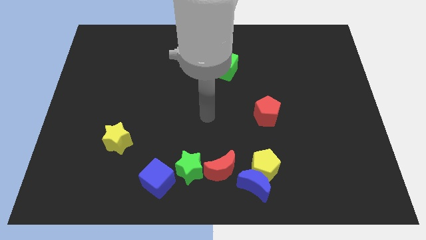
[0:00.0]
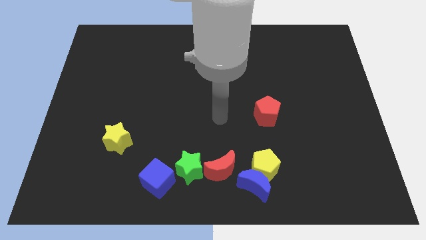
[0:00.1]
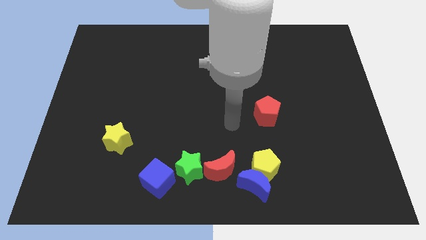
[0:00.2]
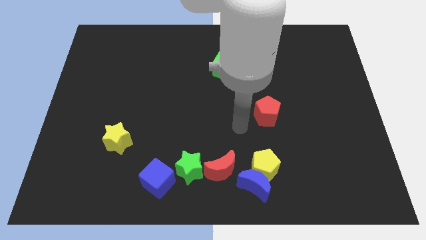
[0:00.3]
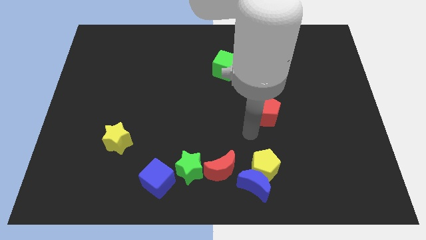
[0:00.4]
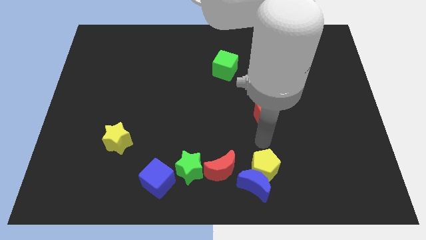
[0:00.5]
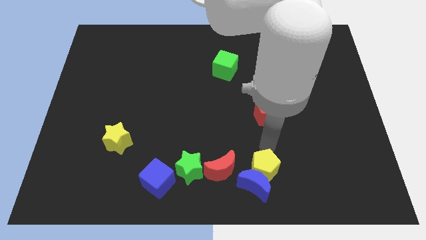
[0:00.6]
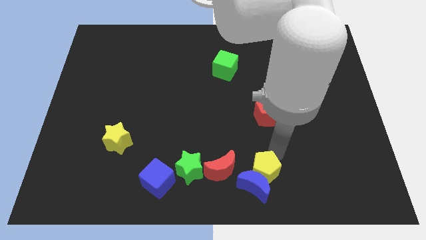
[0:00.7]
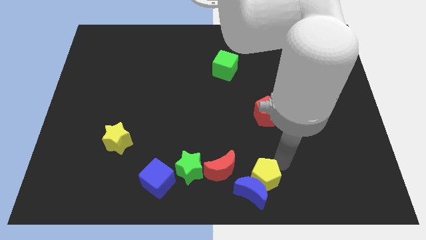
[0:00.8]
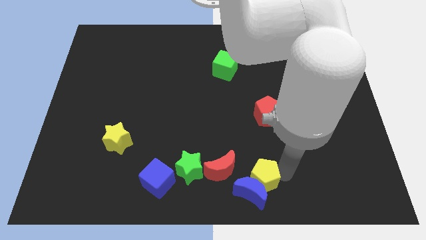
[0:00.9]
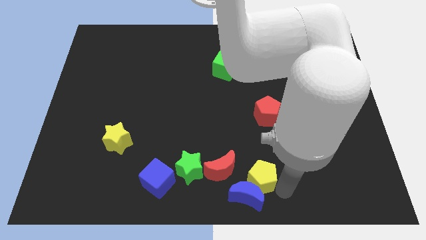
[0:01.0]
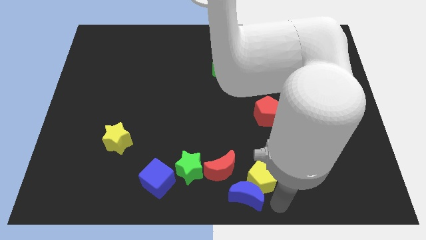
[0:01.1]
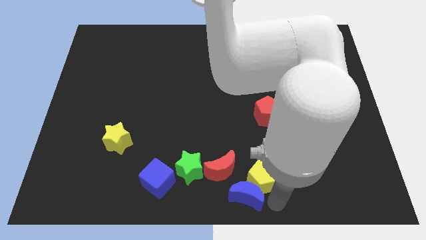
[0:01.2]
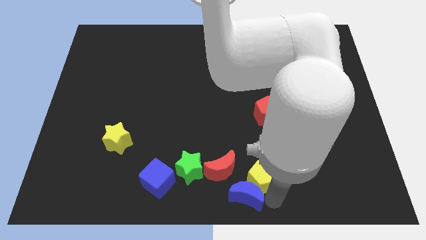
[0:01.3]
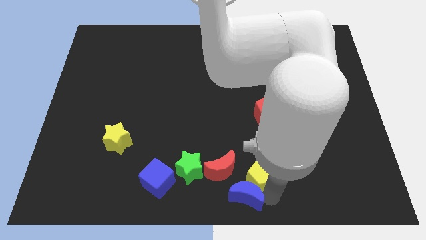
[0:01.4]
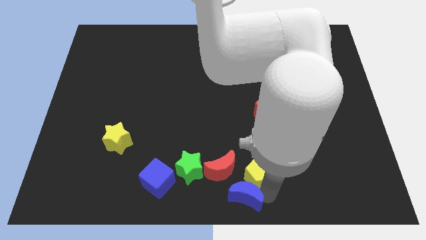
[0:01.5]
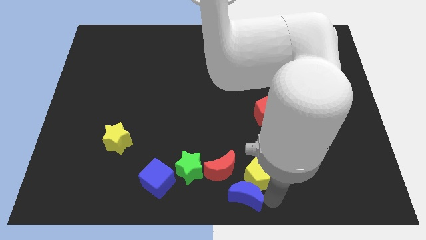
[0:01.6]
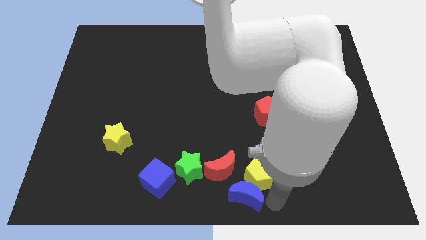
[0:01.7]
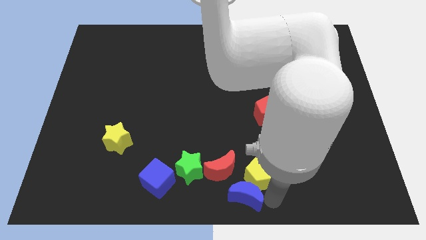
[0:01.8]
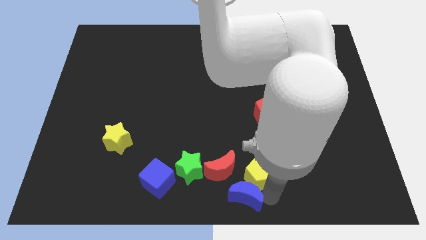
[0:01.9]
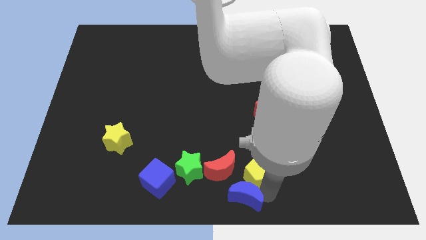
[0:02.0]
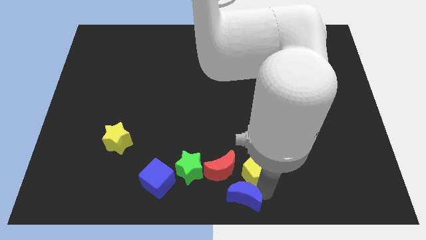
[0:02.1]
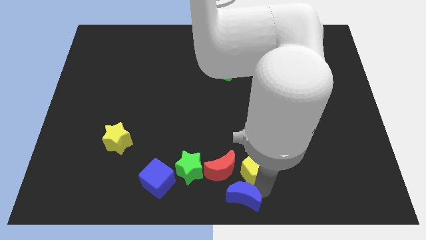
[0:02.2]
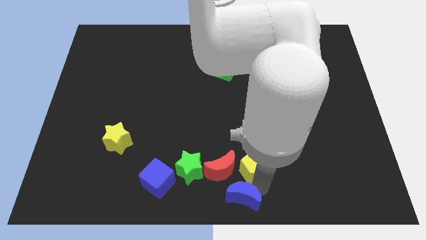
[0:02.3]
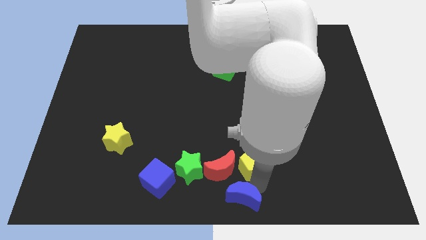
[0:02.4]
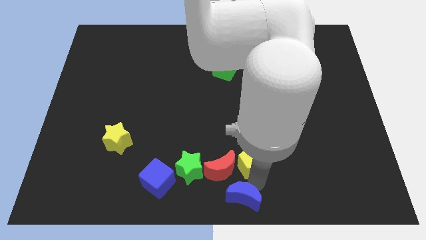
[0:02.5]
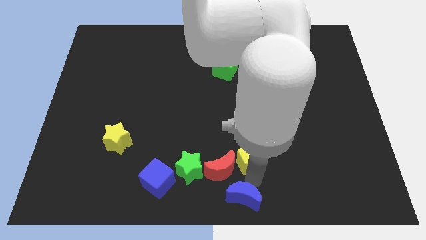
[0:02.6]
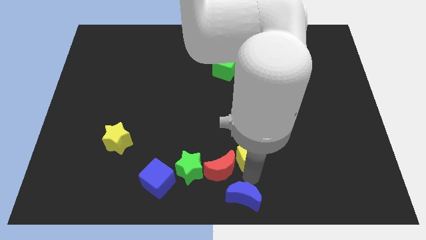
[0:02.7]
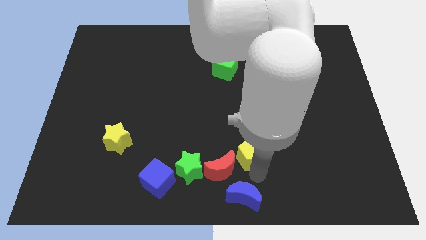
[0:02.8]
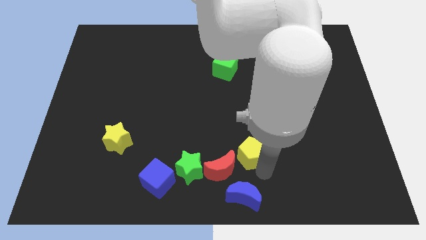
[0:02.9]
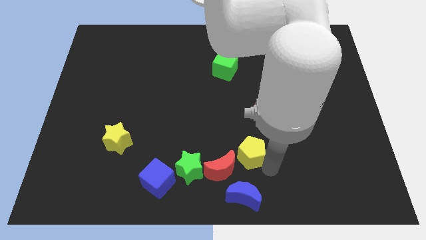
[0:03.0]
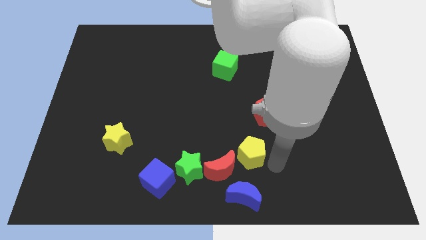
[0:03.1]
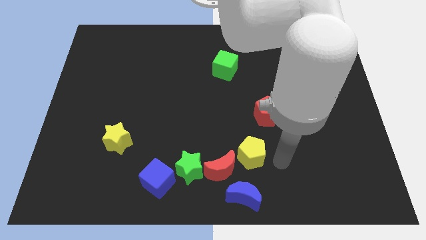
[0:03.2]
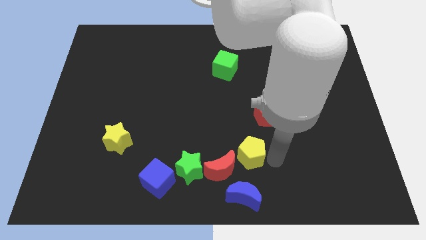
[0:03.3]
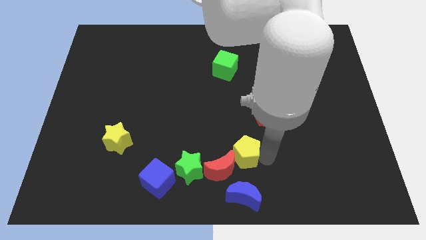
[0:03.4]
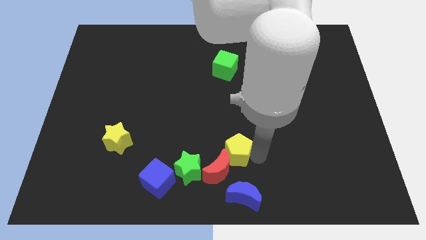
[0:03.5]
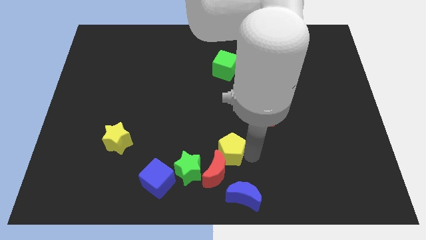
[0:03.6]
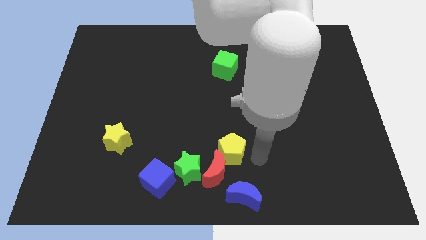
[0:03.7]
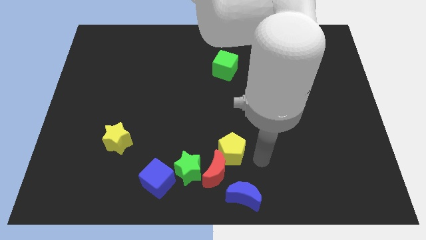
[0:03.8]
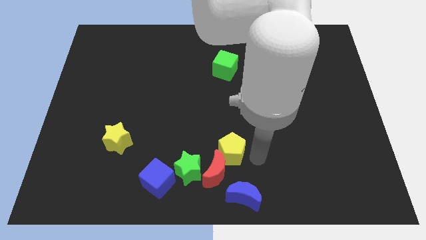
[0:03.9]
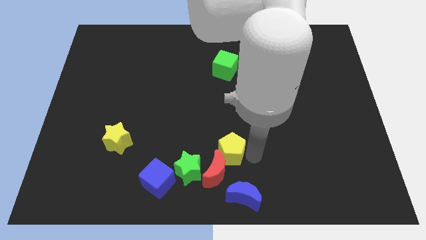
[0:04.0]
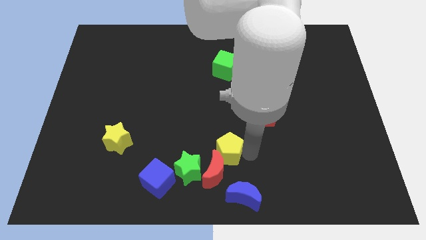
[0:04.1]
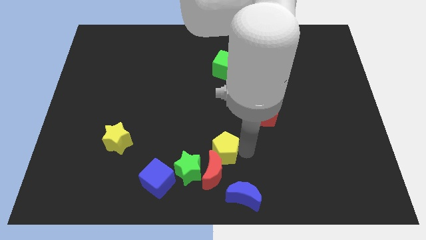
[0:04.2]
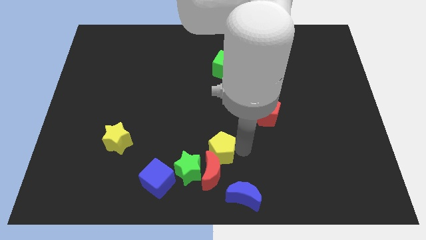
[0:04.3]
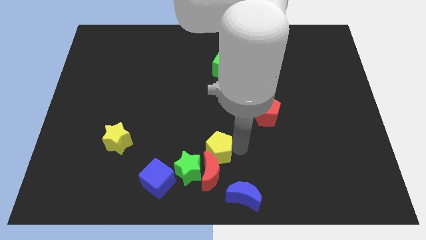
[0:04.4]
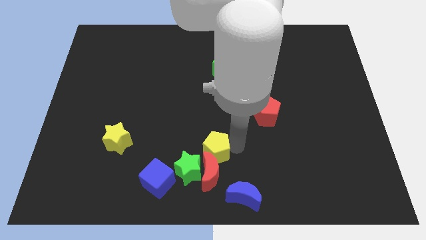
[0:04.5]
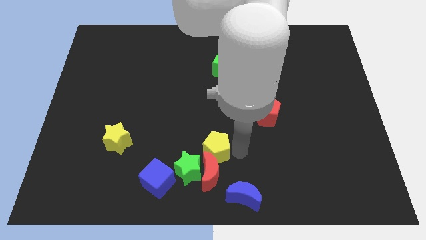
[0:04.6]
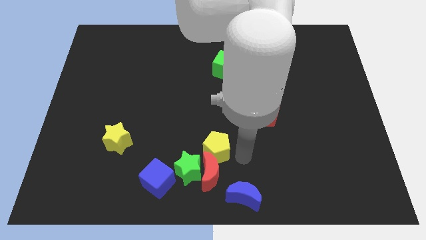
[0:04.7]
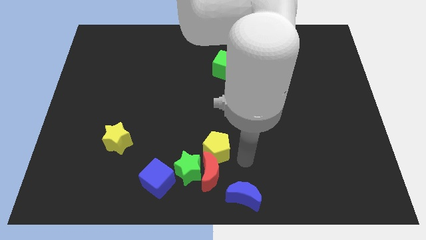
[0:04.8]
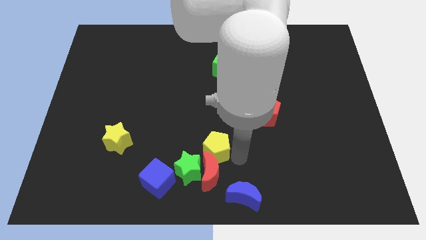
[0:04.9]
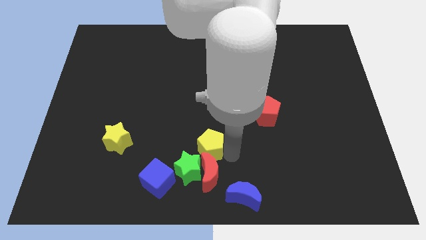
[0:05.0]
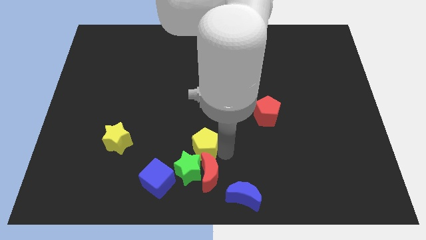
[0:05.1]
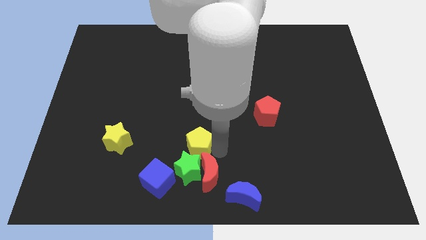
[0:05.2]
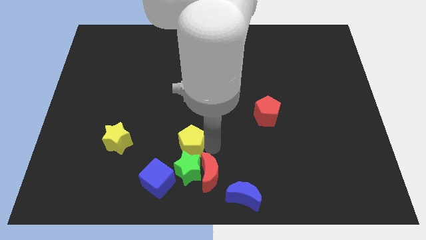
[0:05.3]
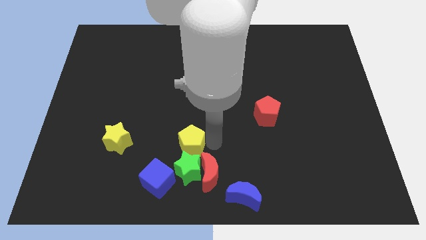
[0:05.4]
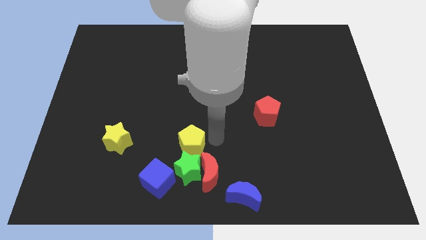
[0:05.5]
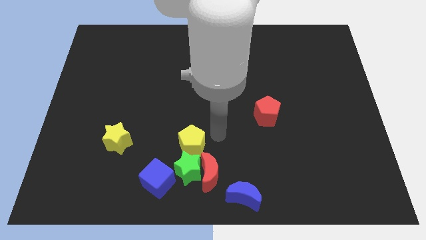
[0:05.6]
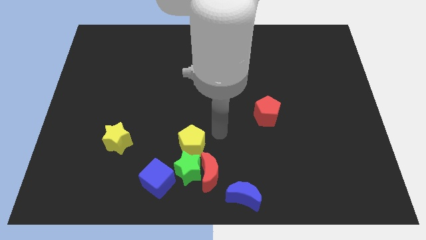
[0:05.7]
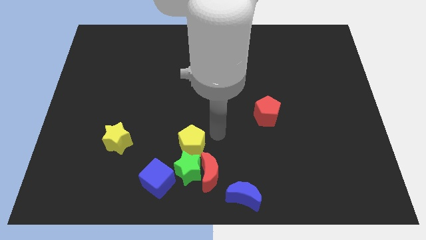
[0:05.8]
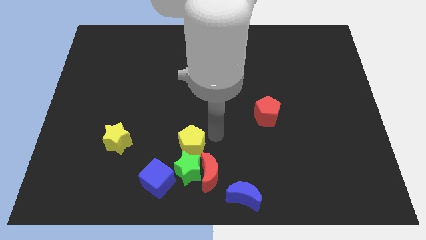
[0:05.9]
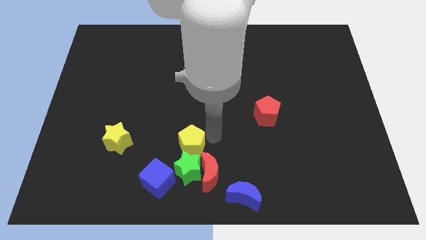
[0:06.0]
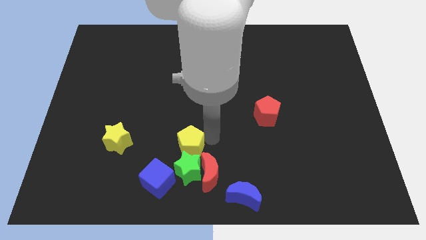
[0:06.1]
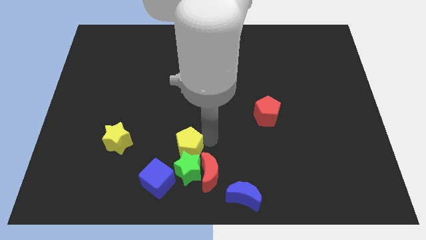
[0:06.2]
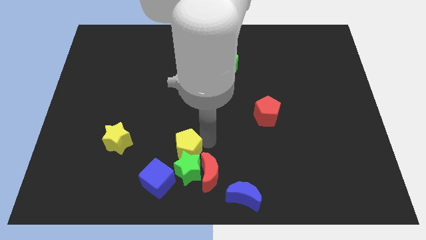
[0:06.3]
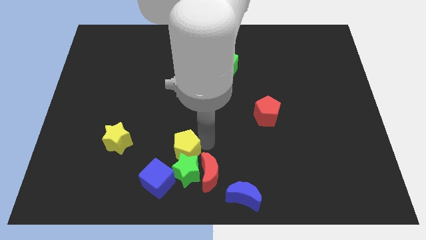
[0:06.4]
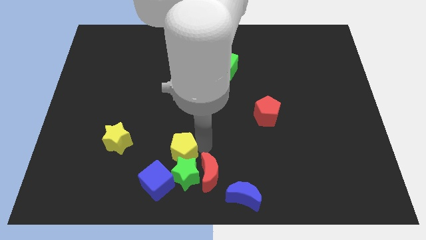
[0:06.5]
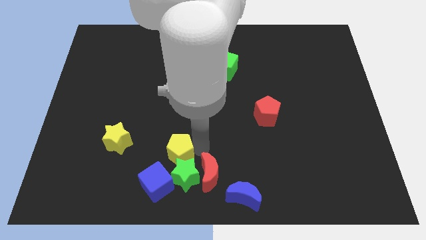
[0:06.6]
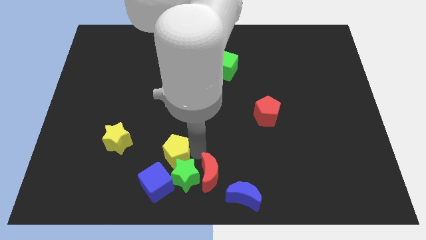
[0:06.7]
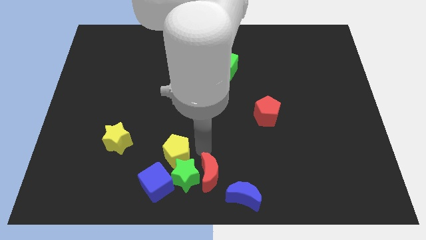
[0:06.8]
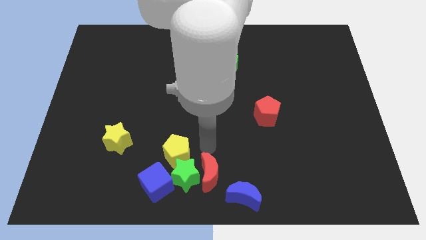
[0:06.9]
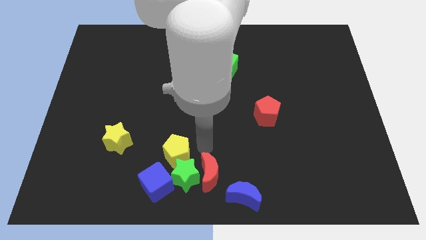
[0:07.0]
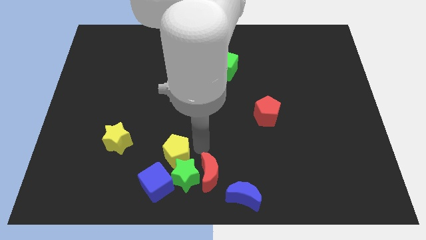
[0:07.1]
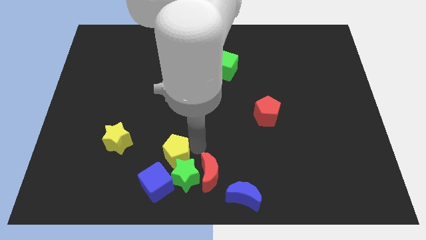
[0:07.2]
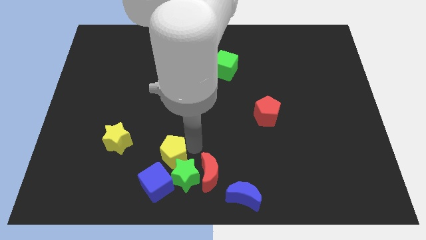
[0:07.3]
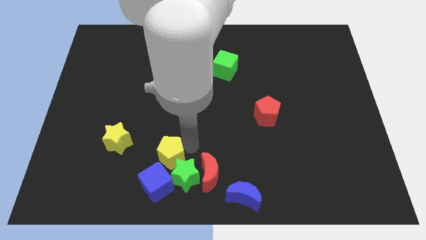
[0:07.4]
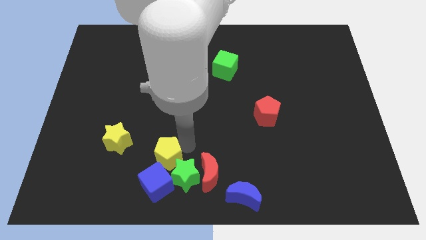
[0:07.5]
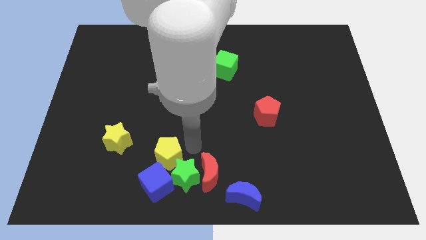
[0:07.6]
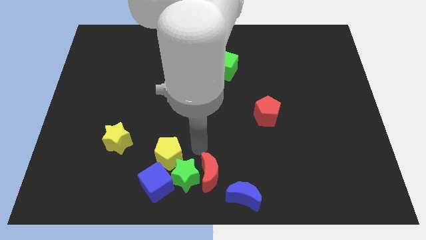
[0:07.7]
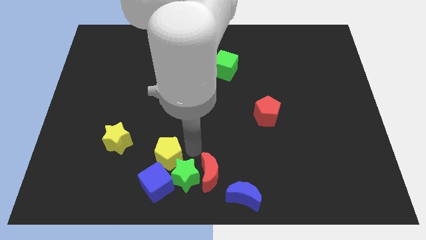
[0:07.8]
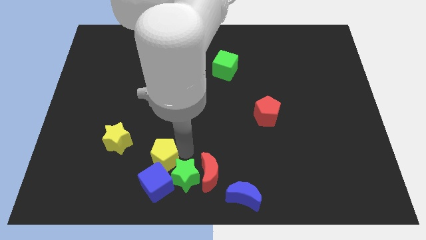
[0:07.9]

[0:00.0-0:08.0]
slide the yellow pentagon to the left
